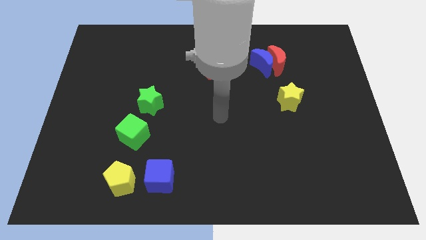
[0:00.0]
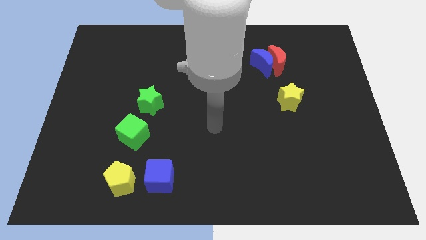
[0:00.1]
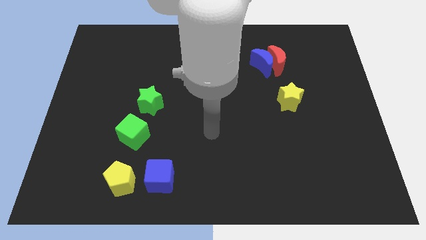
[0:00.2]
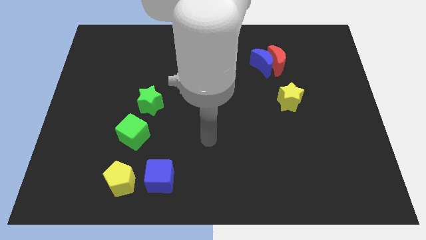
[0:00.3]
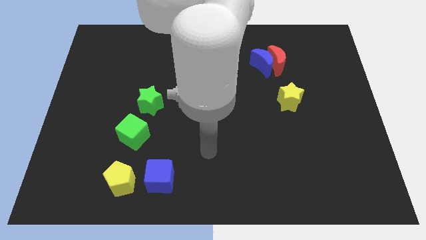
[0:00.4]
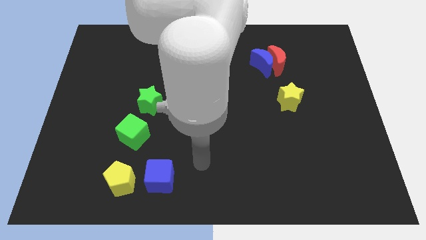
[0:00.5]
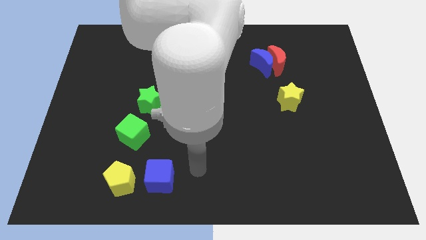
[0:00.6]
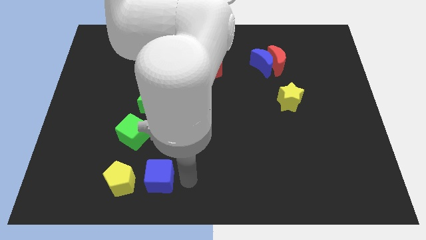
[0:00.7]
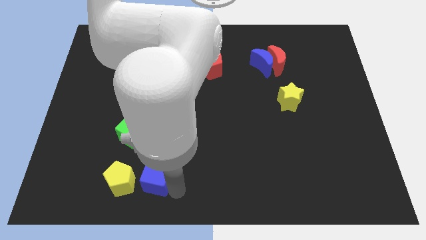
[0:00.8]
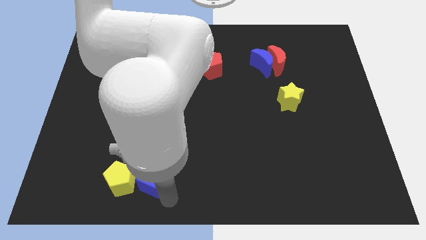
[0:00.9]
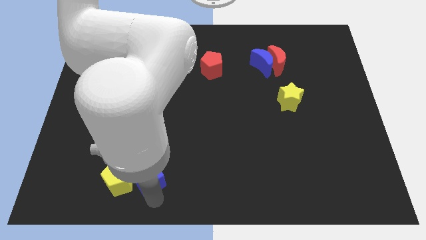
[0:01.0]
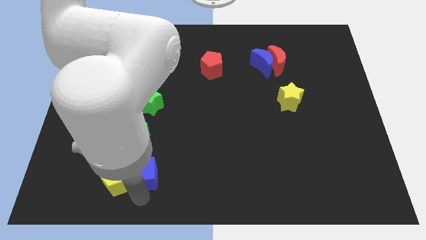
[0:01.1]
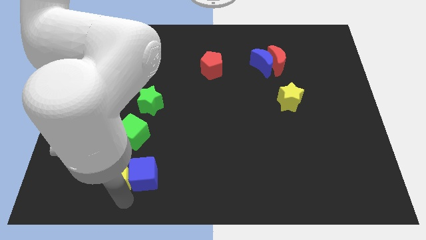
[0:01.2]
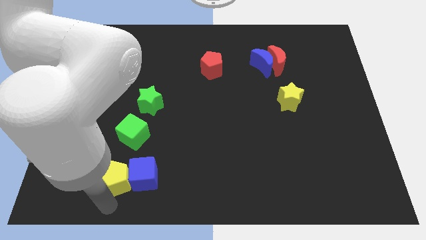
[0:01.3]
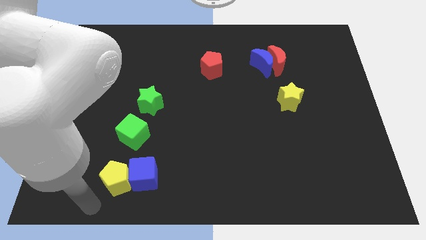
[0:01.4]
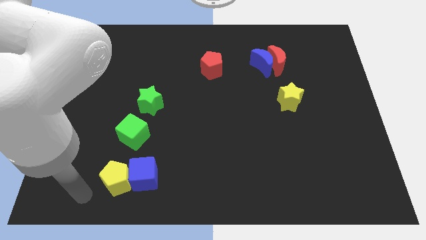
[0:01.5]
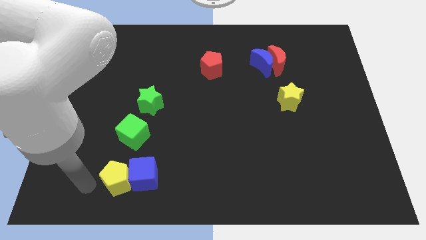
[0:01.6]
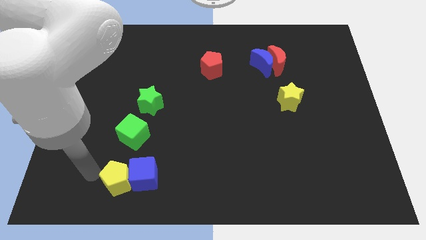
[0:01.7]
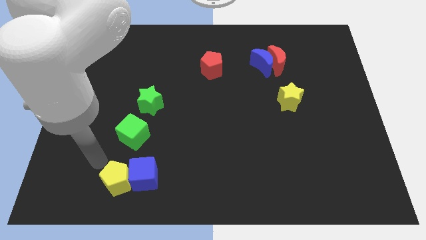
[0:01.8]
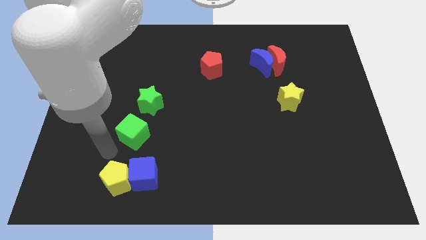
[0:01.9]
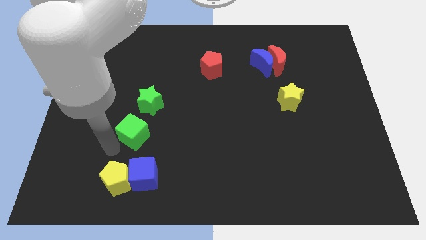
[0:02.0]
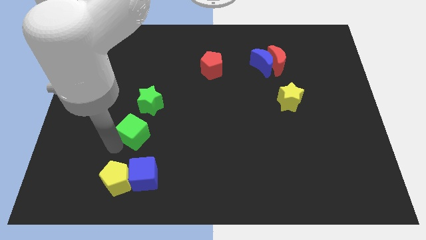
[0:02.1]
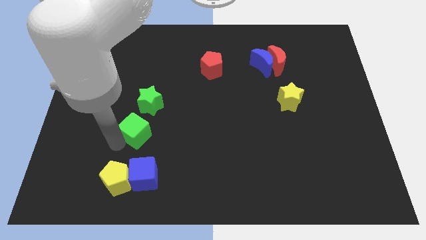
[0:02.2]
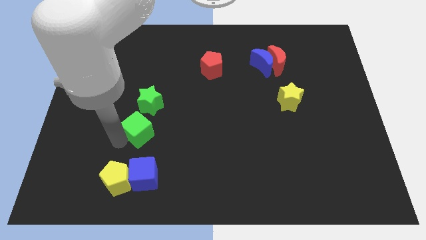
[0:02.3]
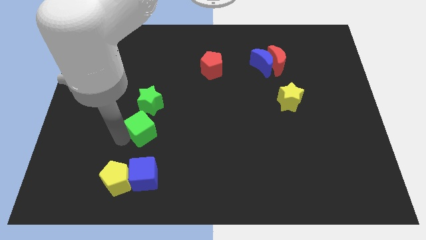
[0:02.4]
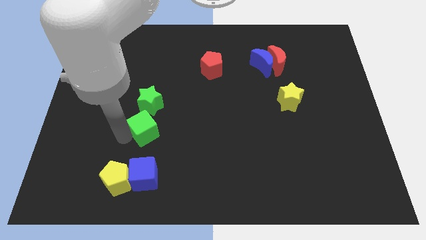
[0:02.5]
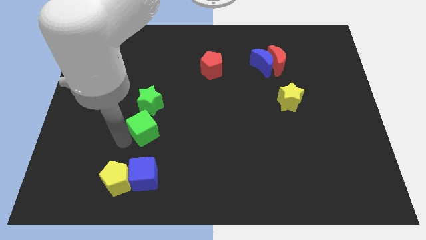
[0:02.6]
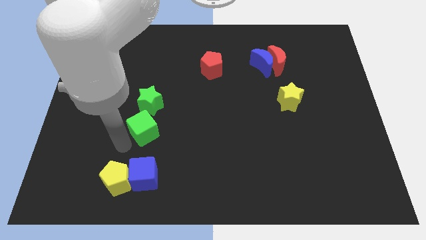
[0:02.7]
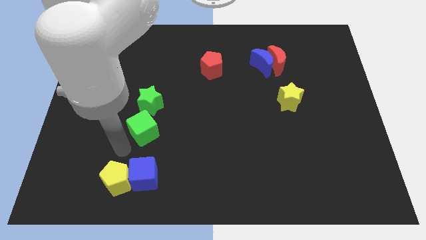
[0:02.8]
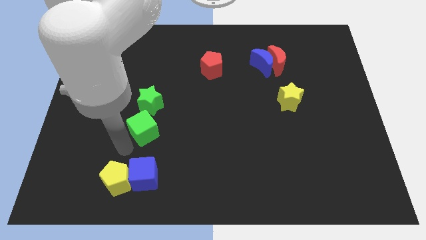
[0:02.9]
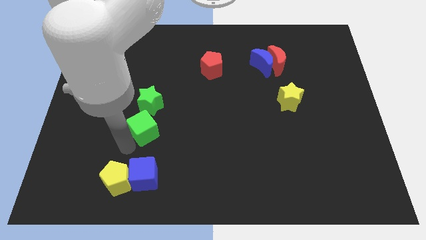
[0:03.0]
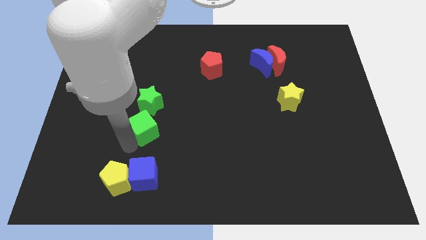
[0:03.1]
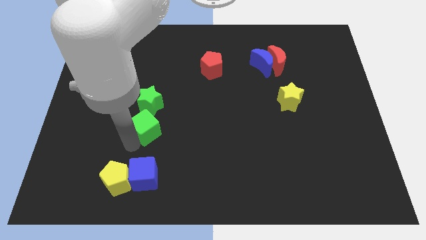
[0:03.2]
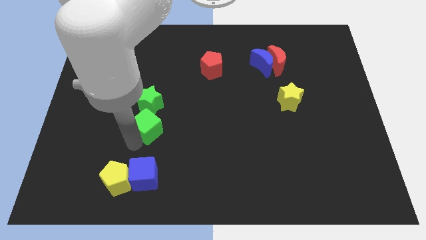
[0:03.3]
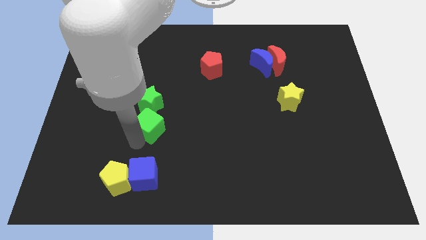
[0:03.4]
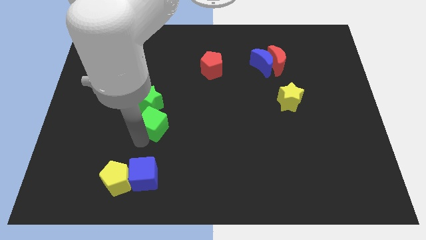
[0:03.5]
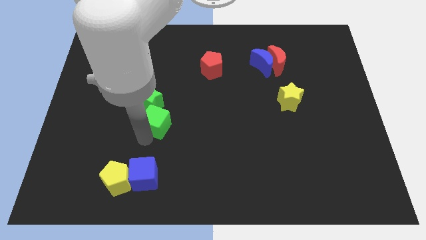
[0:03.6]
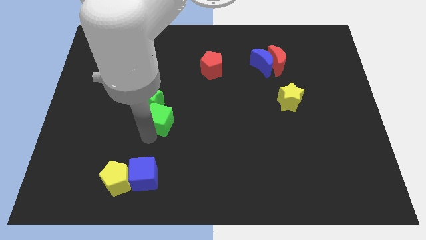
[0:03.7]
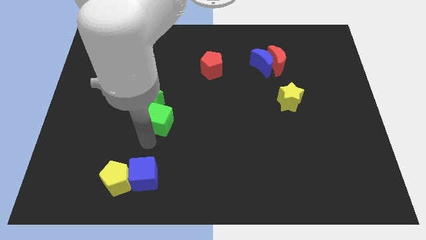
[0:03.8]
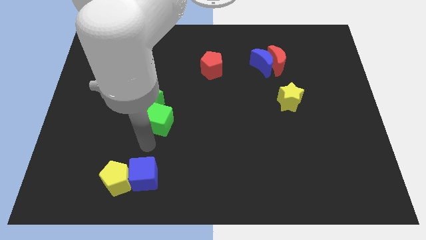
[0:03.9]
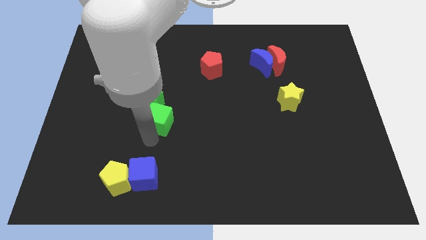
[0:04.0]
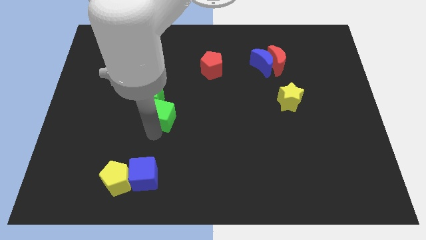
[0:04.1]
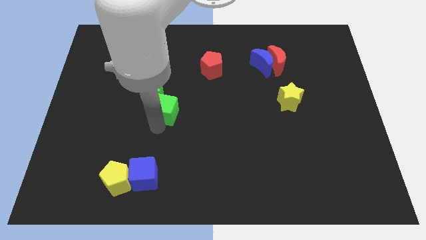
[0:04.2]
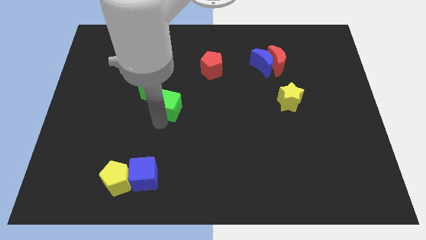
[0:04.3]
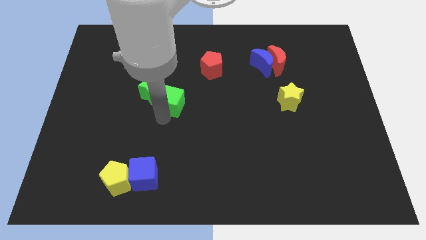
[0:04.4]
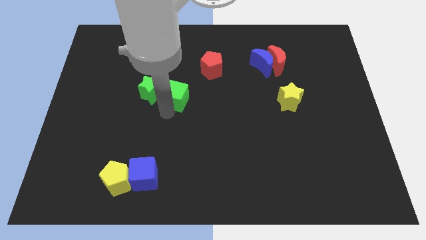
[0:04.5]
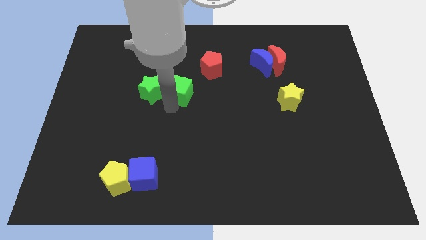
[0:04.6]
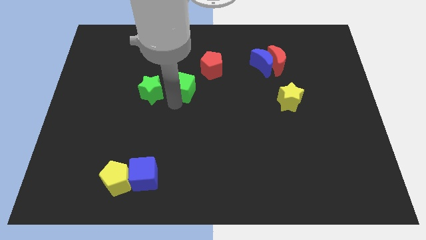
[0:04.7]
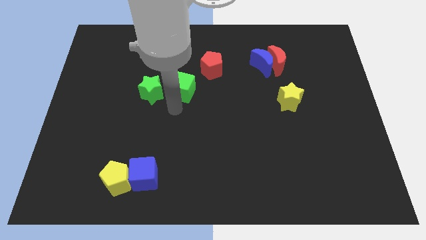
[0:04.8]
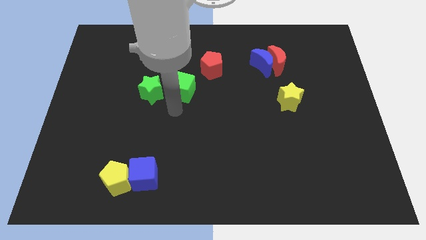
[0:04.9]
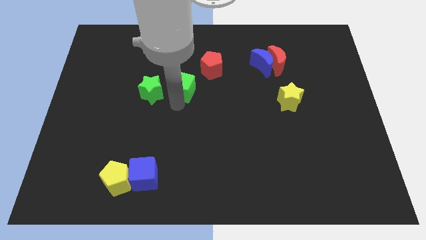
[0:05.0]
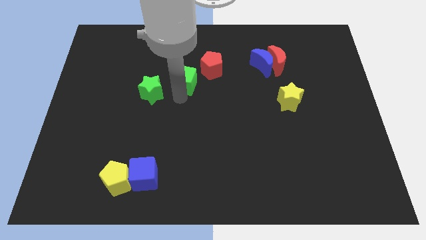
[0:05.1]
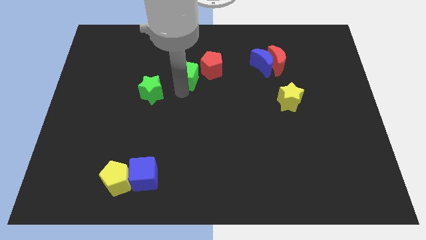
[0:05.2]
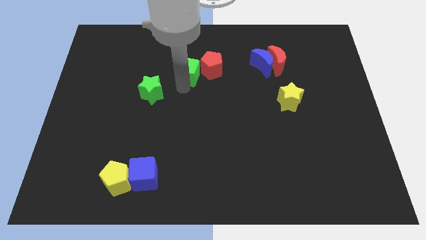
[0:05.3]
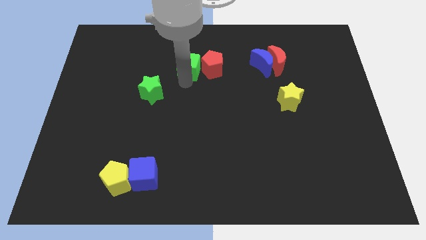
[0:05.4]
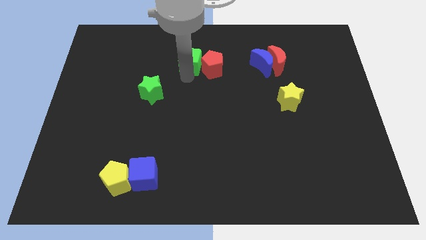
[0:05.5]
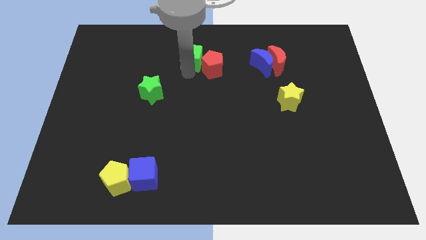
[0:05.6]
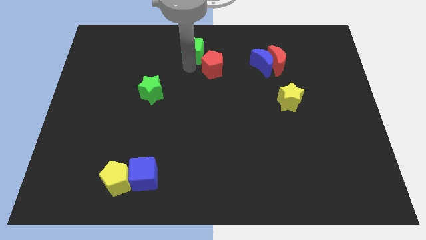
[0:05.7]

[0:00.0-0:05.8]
push the green cube to the top
